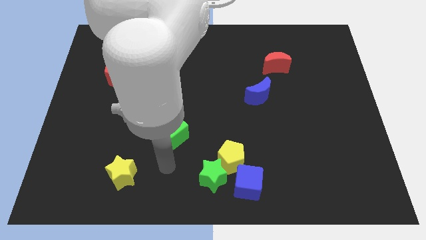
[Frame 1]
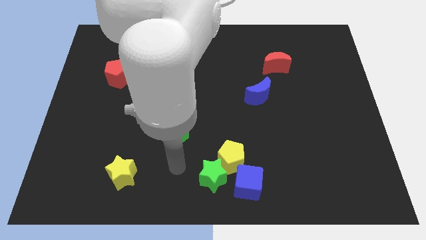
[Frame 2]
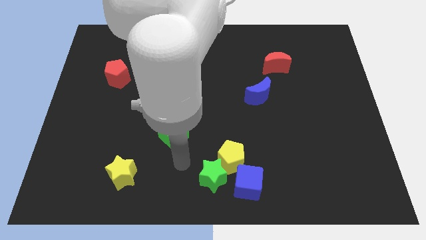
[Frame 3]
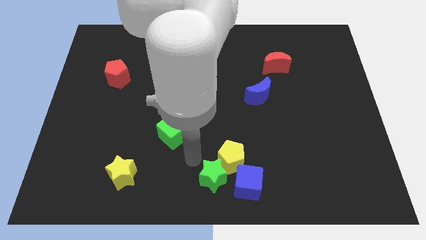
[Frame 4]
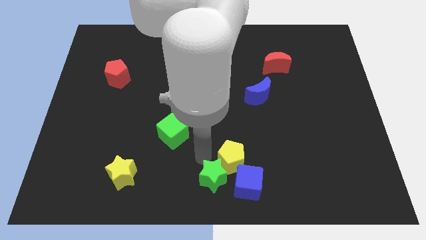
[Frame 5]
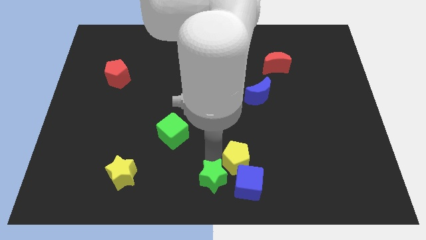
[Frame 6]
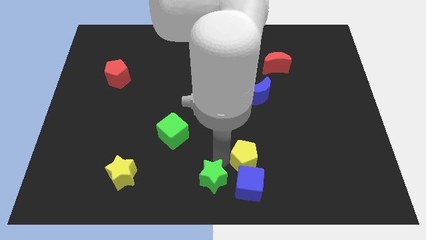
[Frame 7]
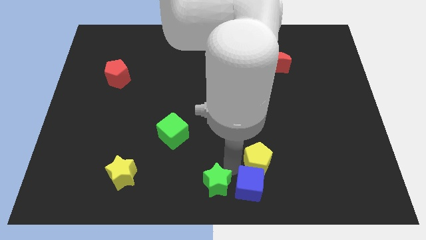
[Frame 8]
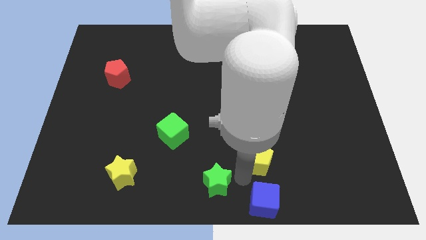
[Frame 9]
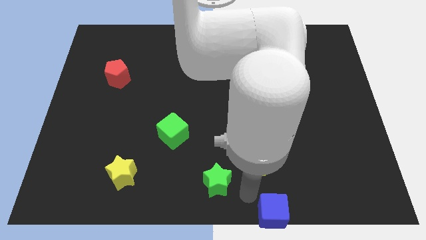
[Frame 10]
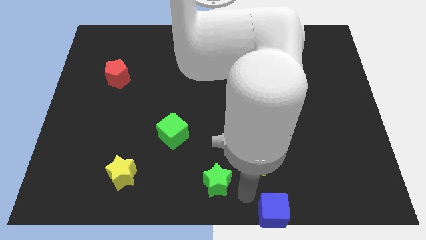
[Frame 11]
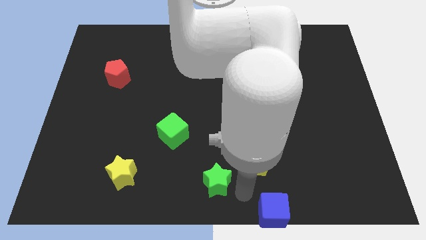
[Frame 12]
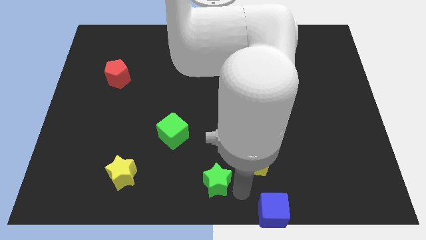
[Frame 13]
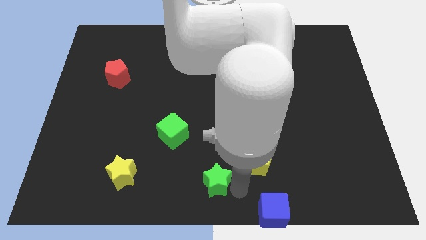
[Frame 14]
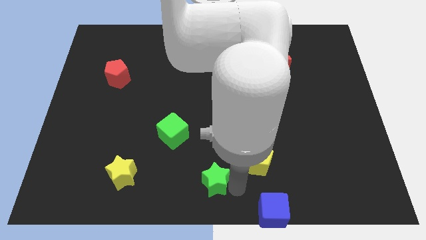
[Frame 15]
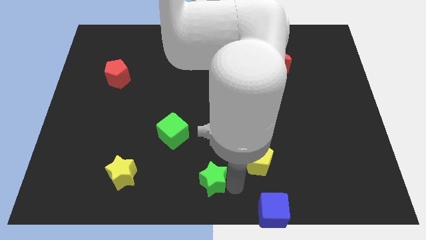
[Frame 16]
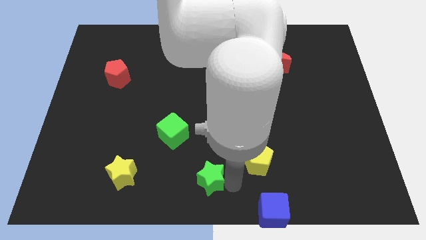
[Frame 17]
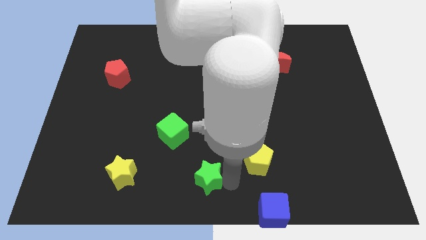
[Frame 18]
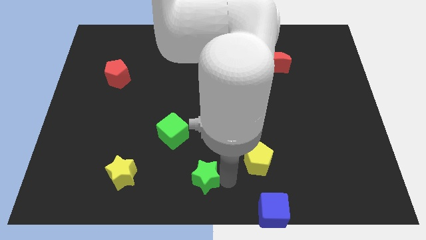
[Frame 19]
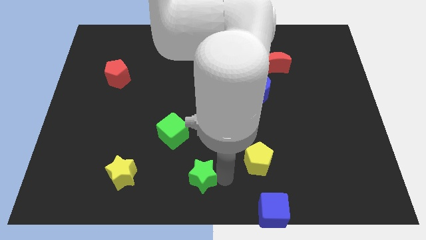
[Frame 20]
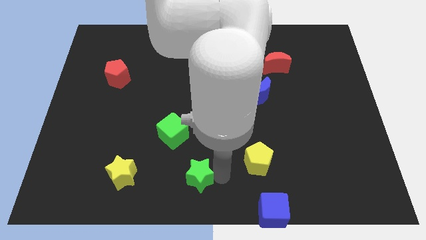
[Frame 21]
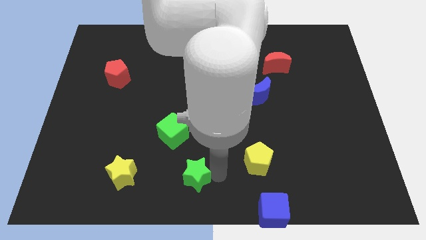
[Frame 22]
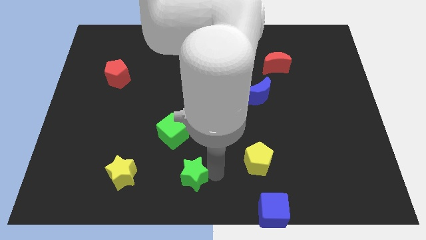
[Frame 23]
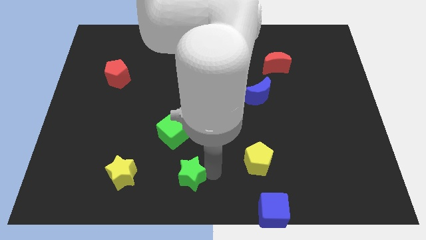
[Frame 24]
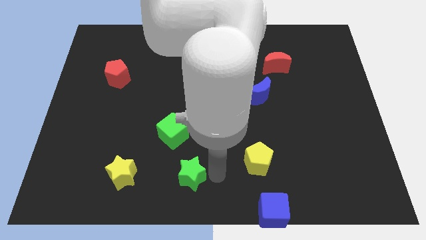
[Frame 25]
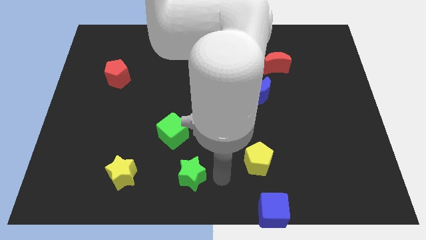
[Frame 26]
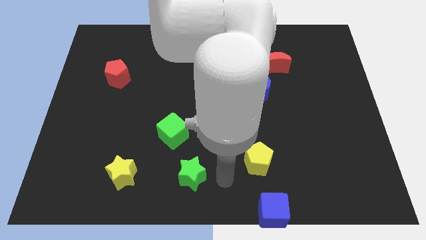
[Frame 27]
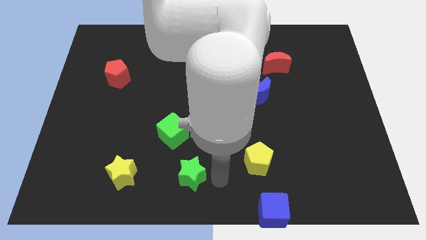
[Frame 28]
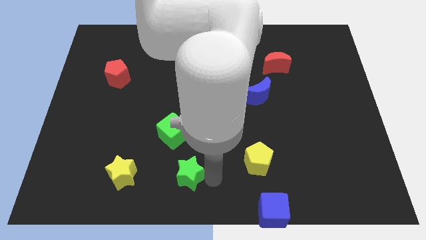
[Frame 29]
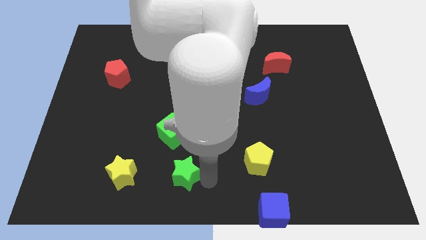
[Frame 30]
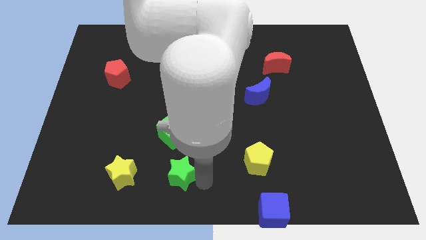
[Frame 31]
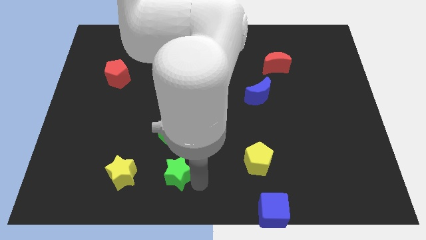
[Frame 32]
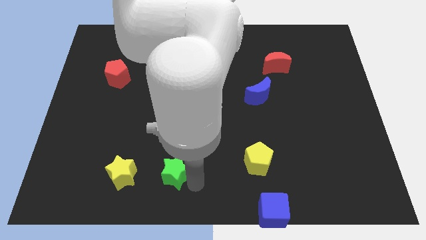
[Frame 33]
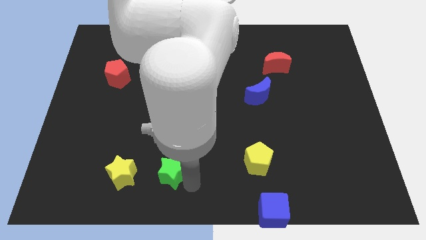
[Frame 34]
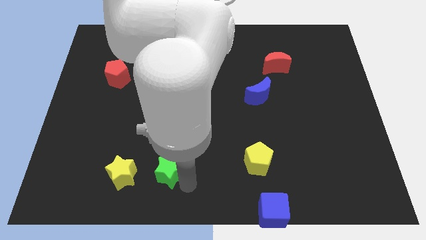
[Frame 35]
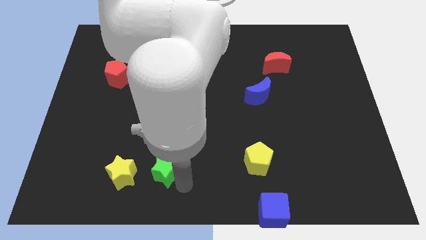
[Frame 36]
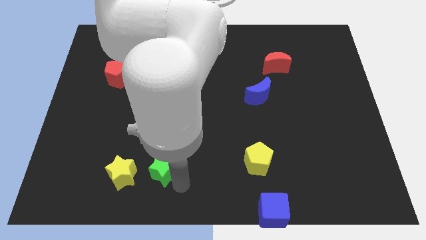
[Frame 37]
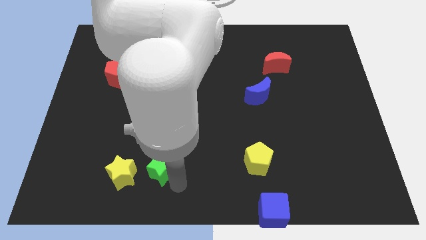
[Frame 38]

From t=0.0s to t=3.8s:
push the green star a little upwards and to the left diagonally

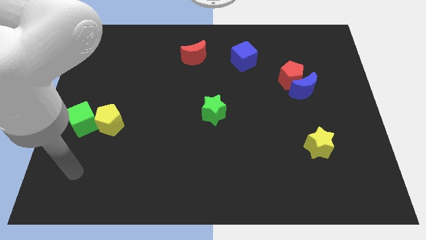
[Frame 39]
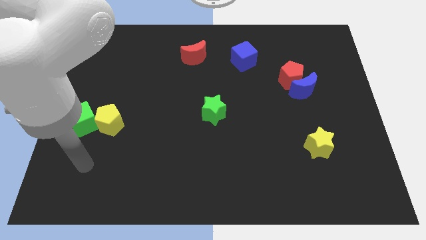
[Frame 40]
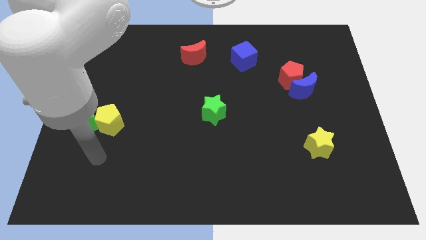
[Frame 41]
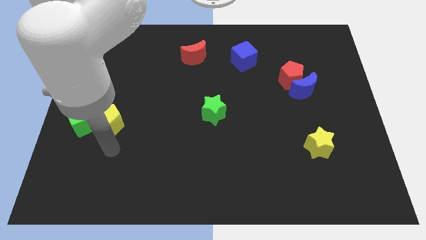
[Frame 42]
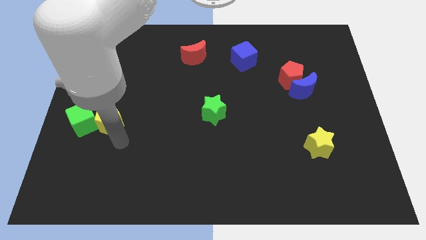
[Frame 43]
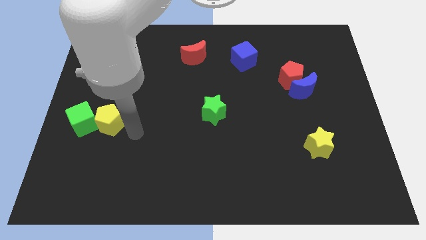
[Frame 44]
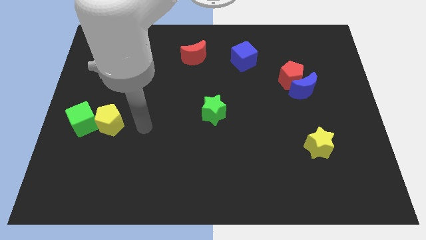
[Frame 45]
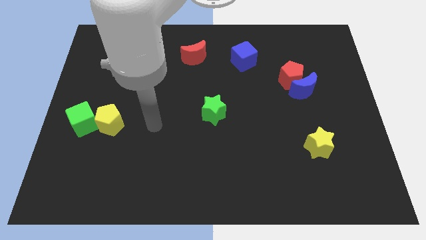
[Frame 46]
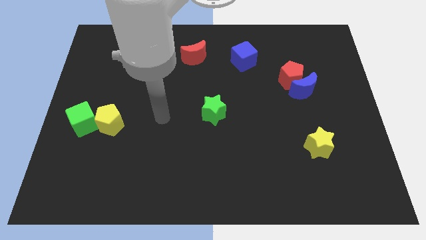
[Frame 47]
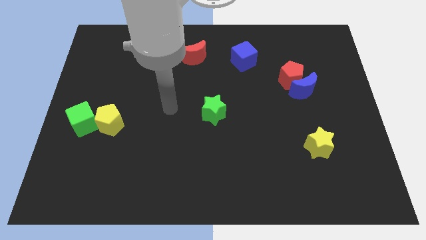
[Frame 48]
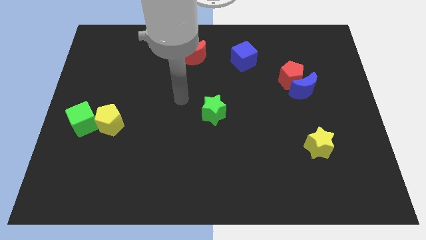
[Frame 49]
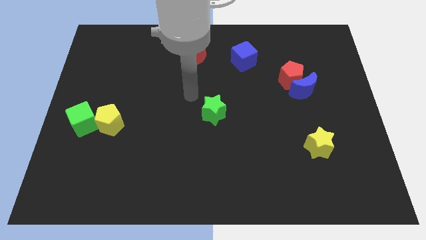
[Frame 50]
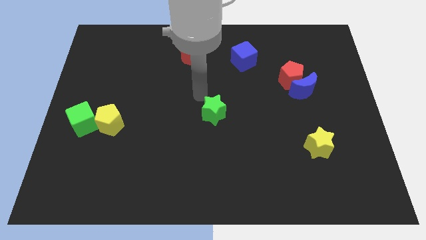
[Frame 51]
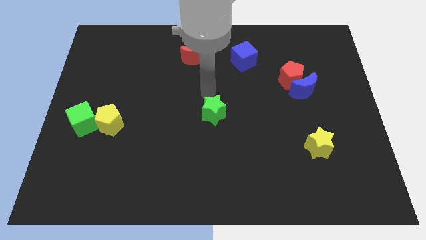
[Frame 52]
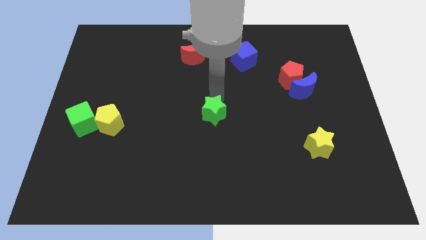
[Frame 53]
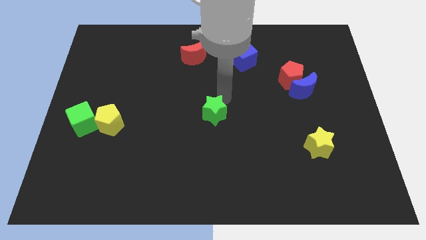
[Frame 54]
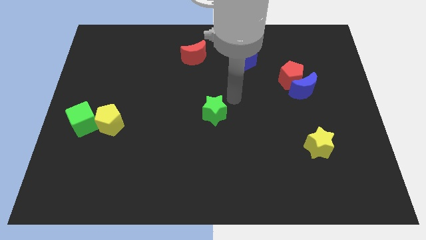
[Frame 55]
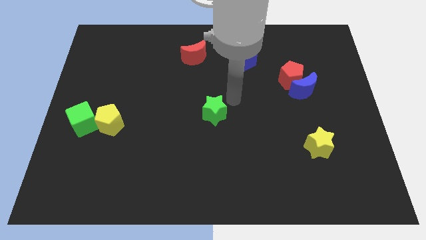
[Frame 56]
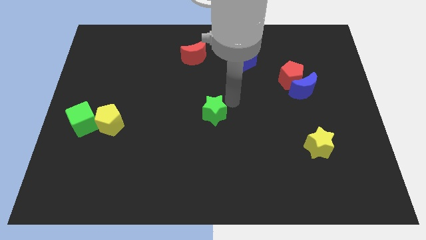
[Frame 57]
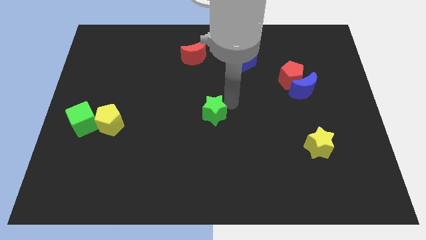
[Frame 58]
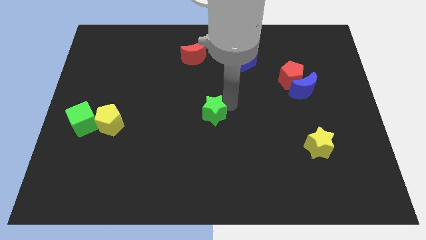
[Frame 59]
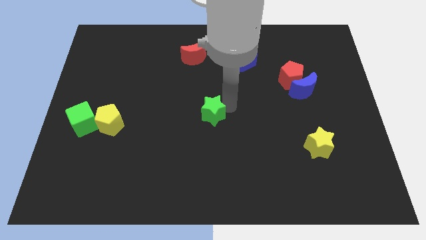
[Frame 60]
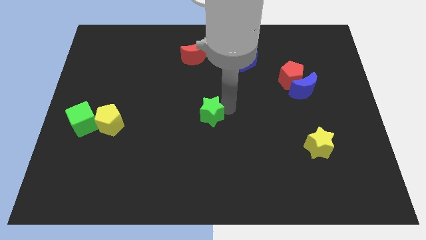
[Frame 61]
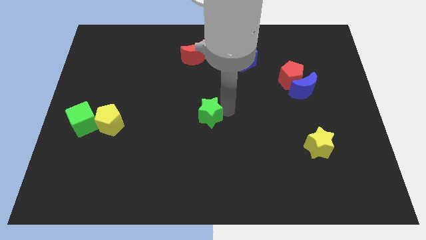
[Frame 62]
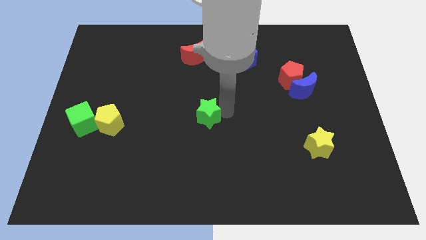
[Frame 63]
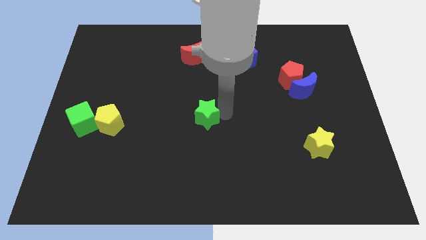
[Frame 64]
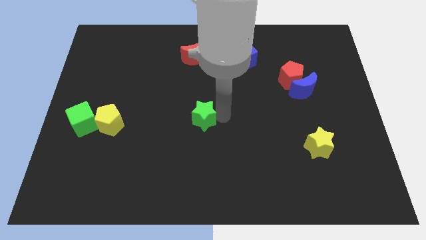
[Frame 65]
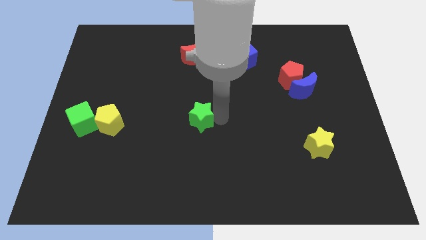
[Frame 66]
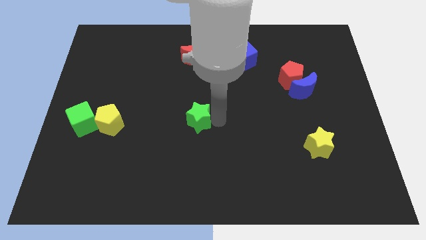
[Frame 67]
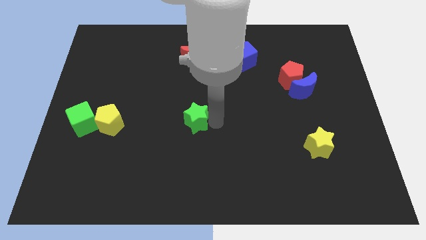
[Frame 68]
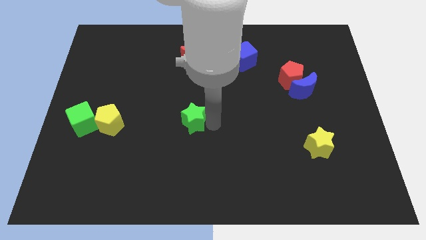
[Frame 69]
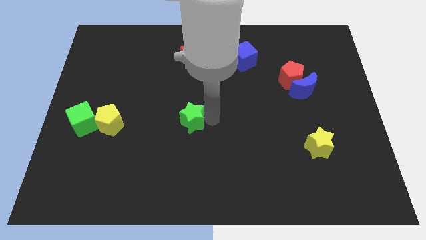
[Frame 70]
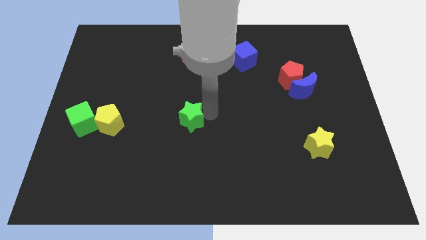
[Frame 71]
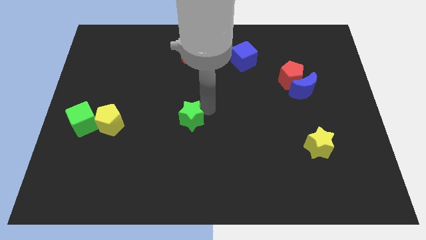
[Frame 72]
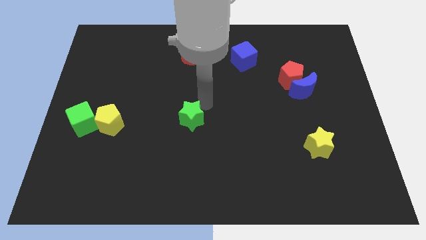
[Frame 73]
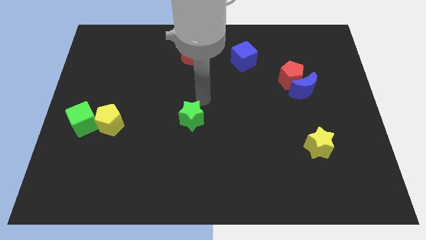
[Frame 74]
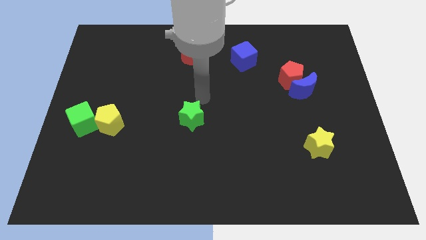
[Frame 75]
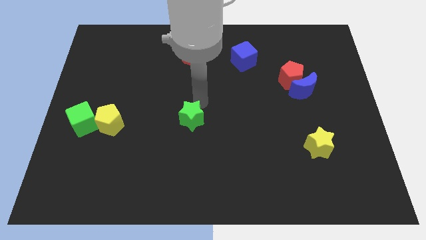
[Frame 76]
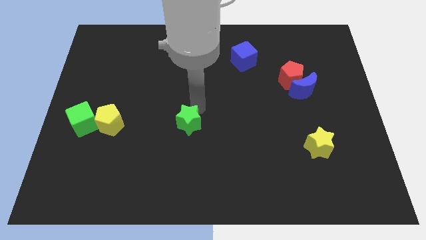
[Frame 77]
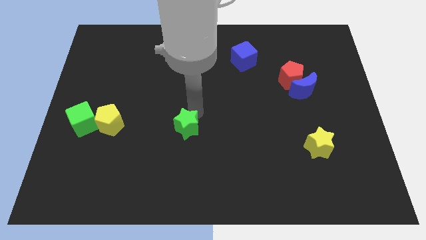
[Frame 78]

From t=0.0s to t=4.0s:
push the green star down and then to the left a bit
